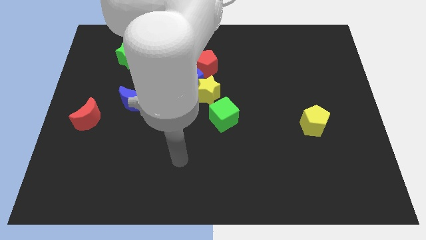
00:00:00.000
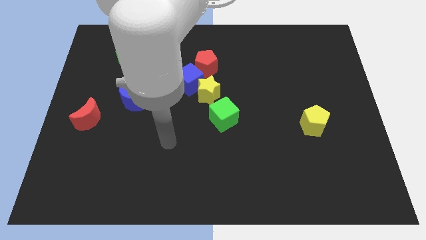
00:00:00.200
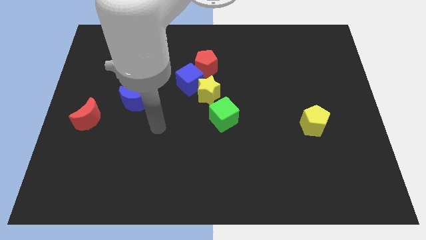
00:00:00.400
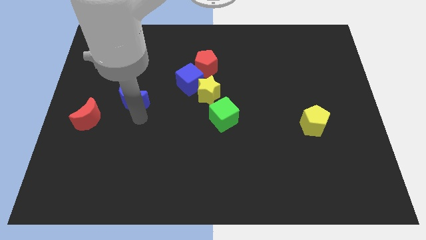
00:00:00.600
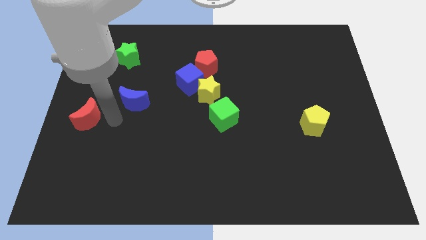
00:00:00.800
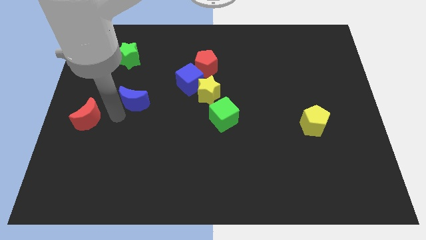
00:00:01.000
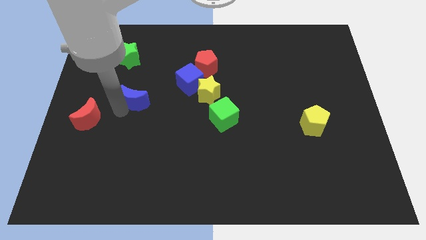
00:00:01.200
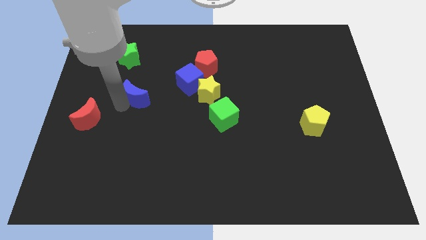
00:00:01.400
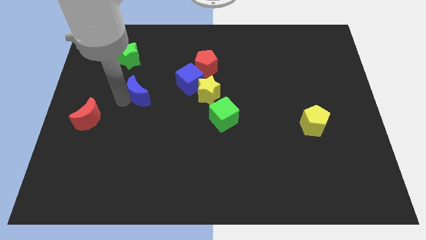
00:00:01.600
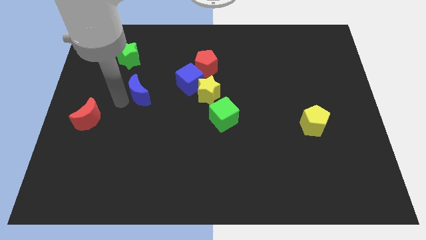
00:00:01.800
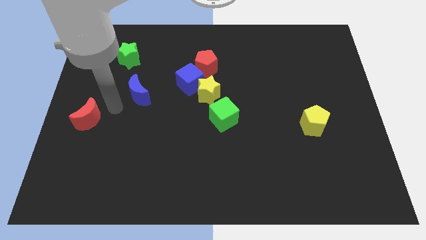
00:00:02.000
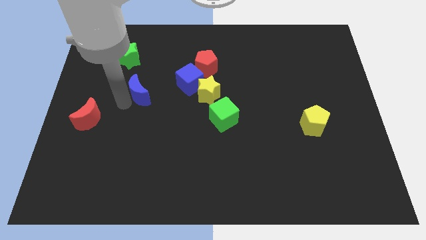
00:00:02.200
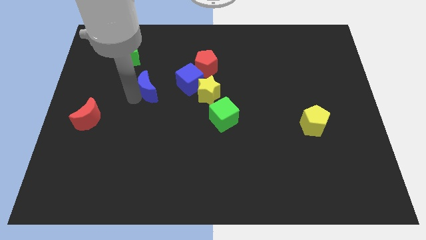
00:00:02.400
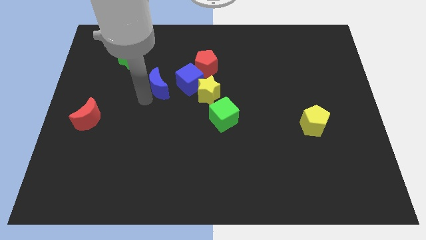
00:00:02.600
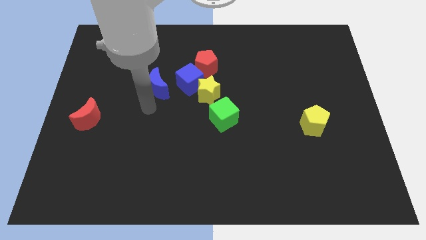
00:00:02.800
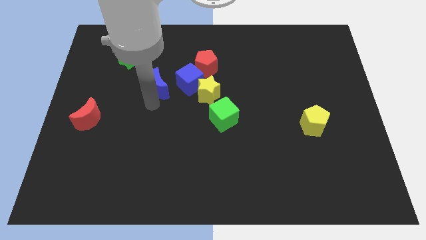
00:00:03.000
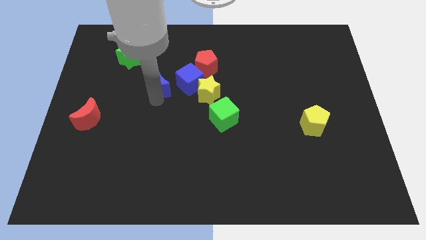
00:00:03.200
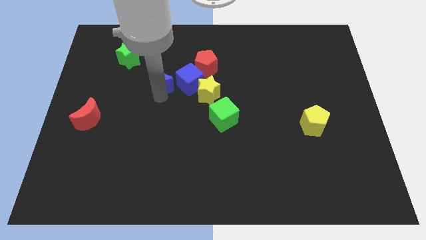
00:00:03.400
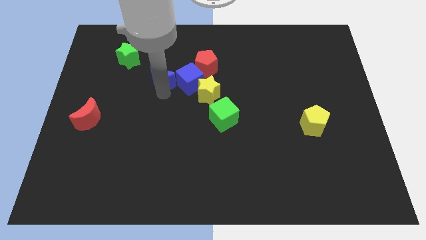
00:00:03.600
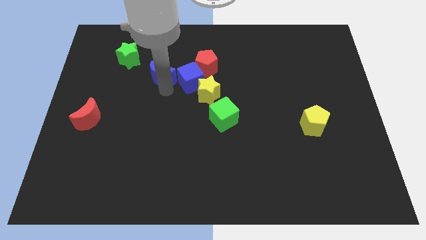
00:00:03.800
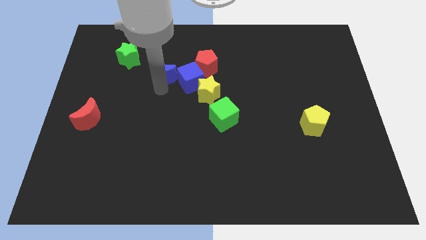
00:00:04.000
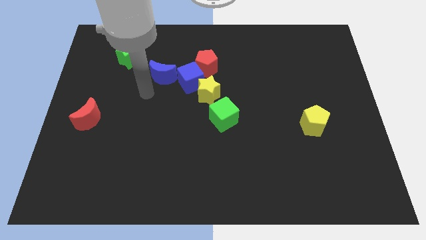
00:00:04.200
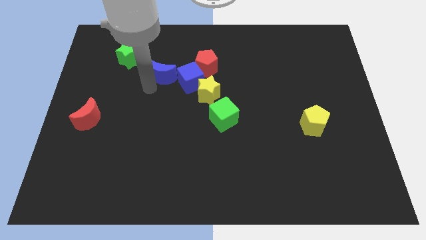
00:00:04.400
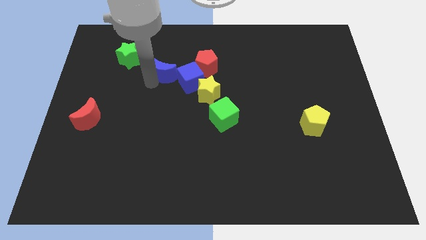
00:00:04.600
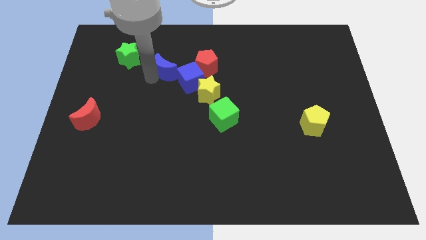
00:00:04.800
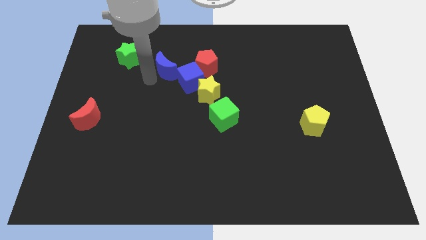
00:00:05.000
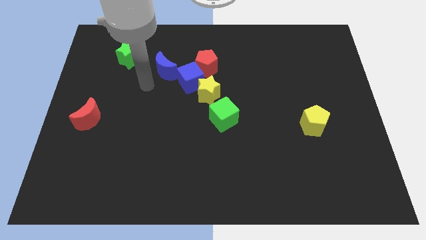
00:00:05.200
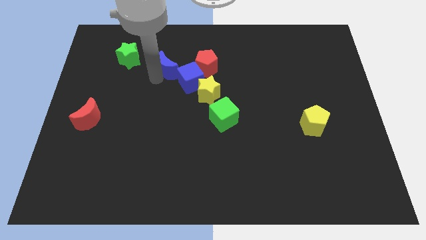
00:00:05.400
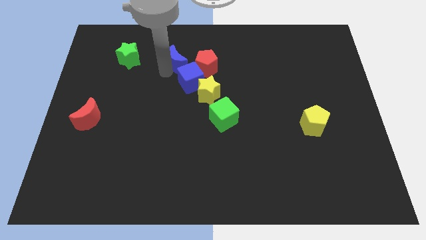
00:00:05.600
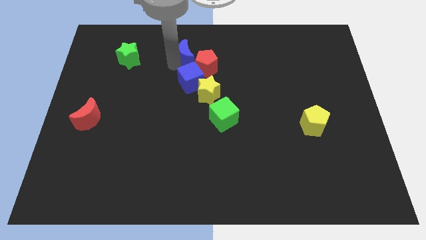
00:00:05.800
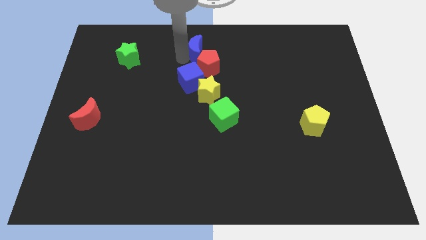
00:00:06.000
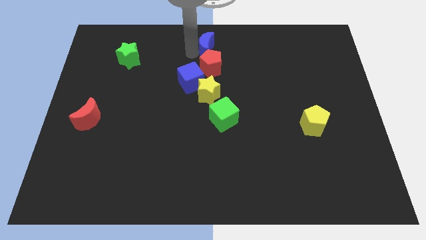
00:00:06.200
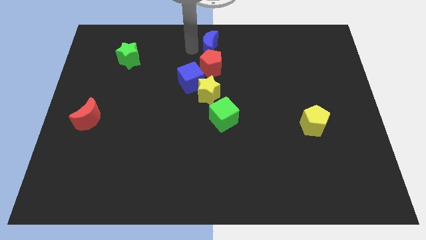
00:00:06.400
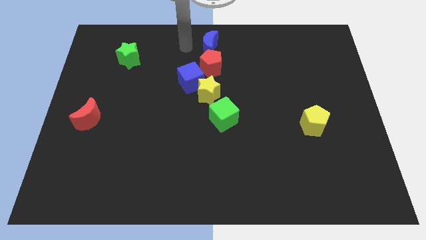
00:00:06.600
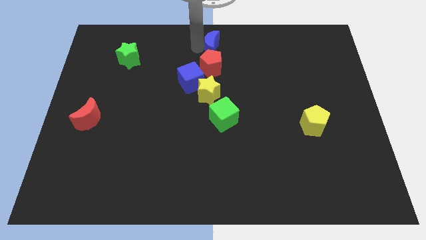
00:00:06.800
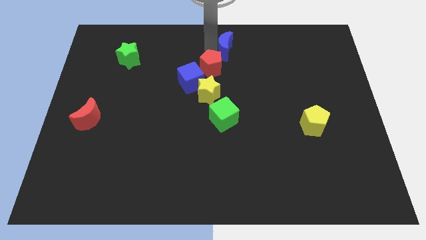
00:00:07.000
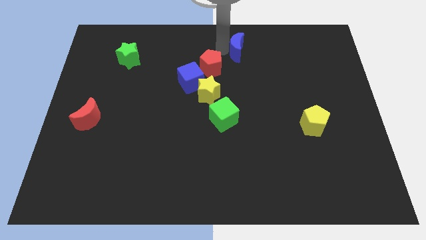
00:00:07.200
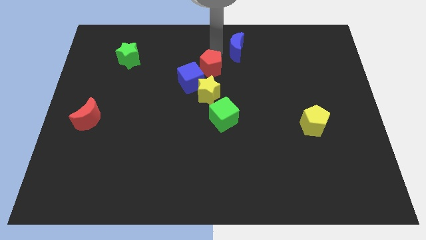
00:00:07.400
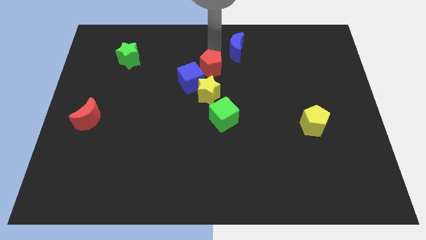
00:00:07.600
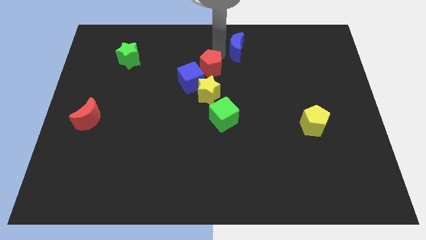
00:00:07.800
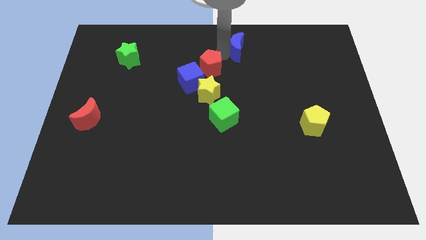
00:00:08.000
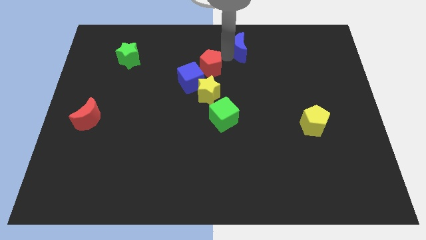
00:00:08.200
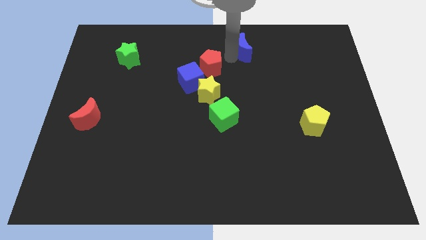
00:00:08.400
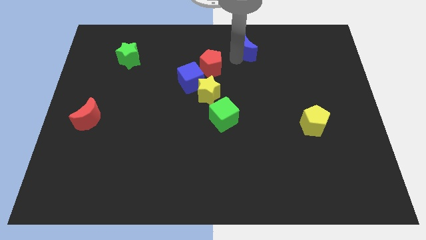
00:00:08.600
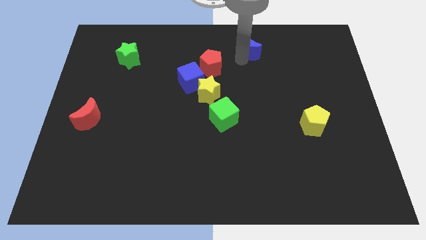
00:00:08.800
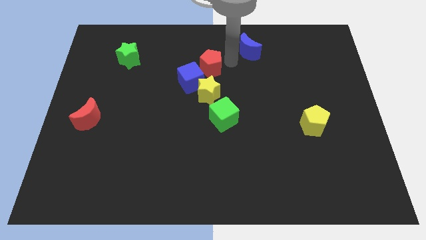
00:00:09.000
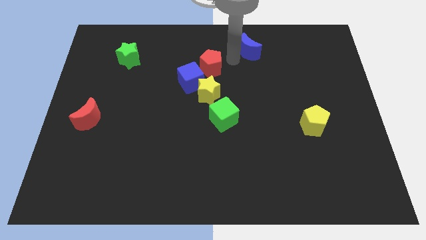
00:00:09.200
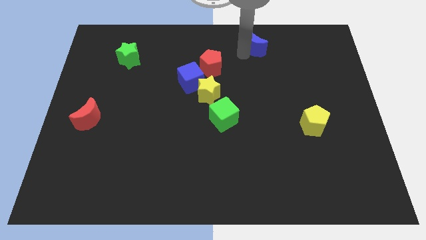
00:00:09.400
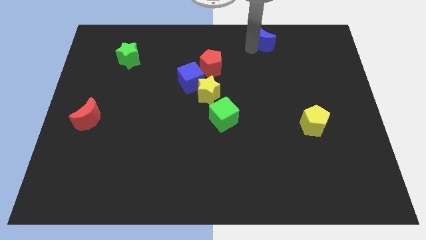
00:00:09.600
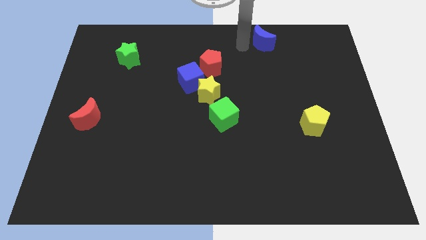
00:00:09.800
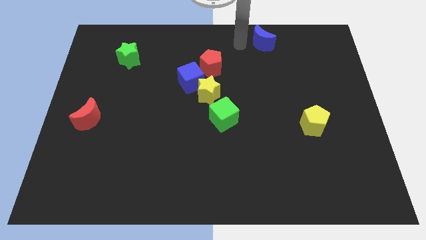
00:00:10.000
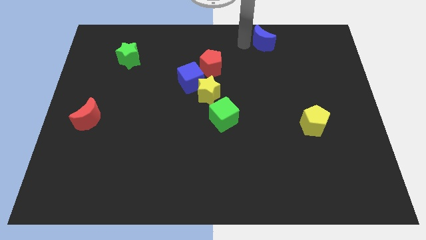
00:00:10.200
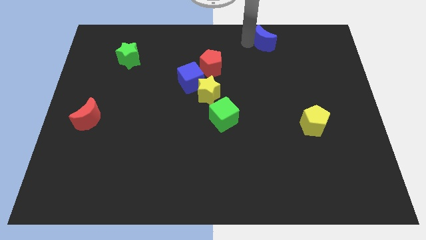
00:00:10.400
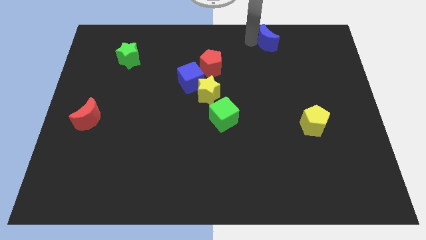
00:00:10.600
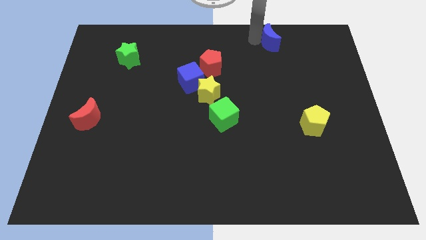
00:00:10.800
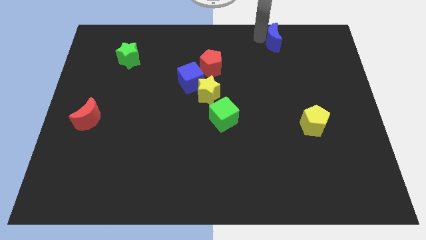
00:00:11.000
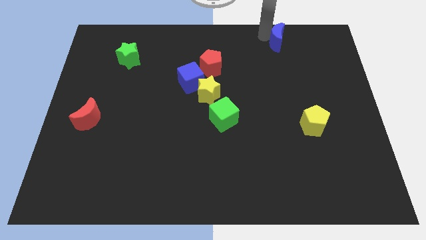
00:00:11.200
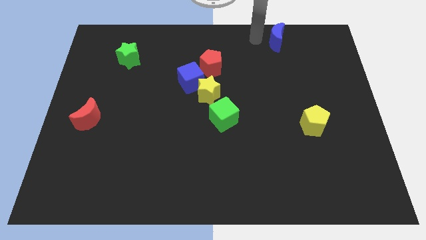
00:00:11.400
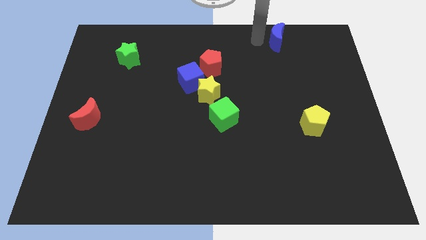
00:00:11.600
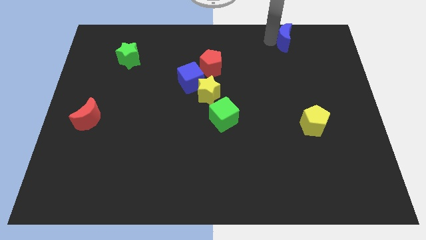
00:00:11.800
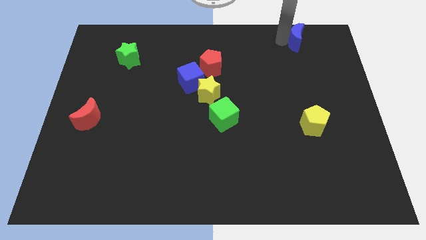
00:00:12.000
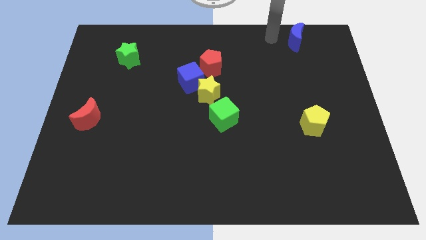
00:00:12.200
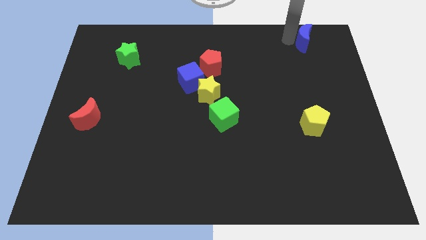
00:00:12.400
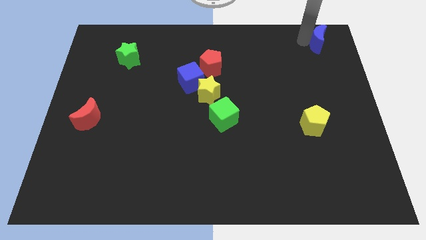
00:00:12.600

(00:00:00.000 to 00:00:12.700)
put the blue moon to the top right
